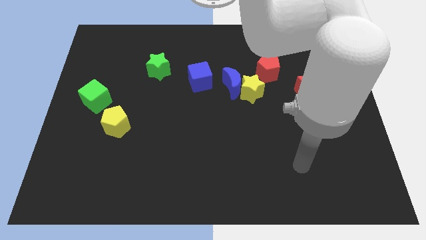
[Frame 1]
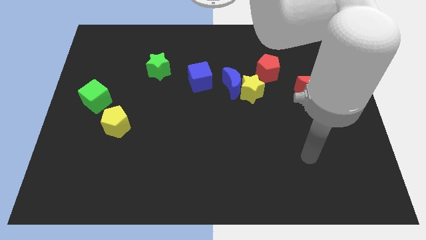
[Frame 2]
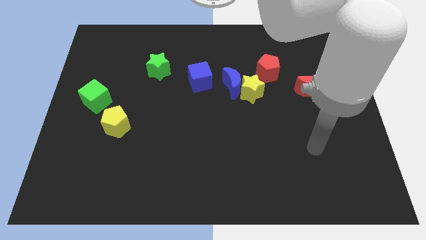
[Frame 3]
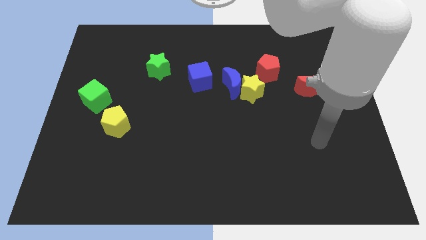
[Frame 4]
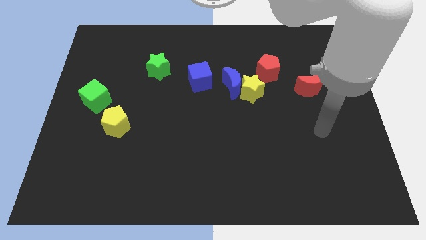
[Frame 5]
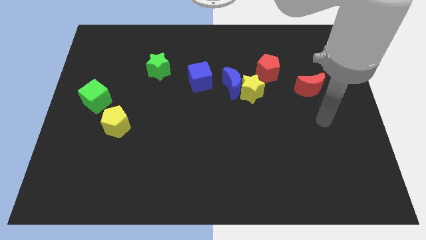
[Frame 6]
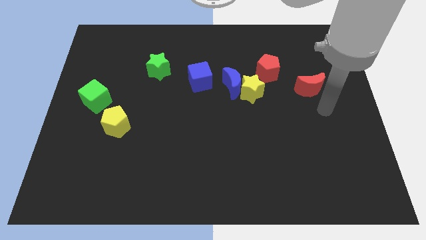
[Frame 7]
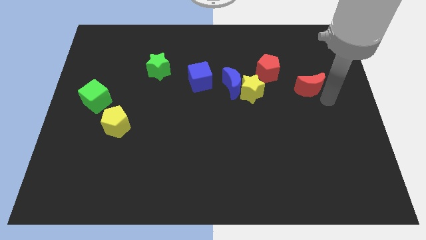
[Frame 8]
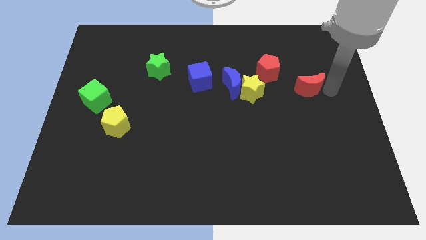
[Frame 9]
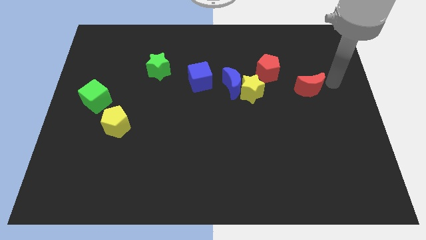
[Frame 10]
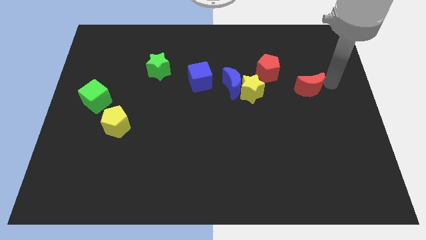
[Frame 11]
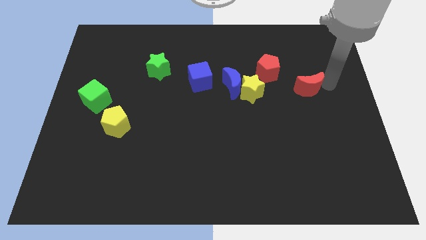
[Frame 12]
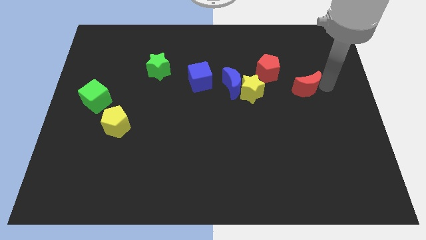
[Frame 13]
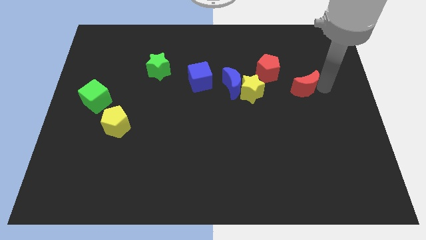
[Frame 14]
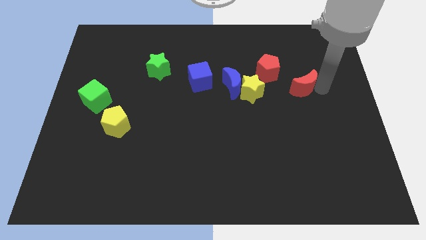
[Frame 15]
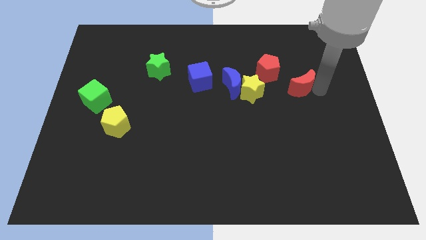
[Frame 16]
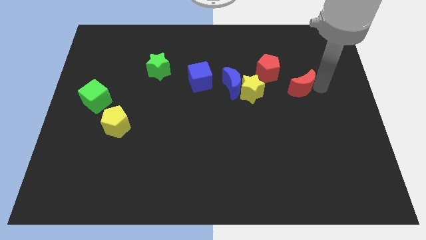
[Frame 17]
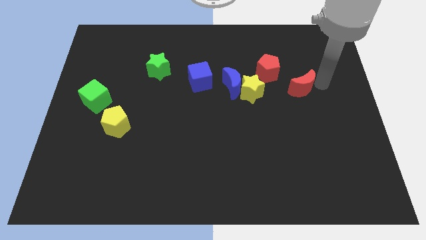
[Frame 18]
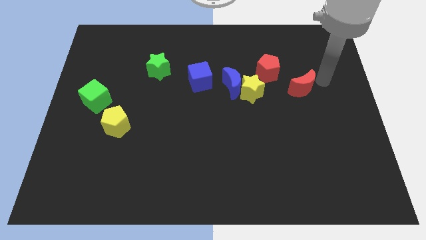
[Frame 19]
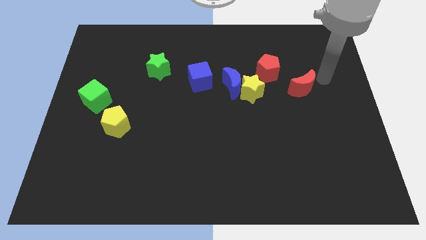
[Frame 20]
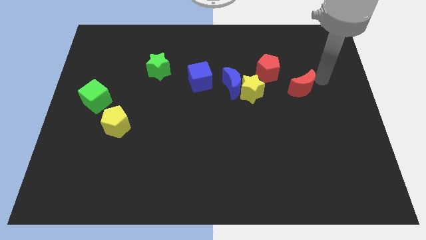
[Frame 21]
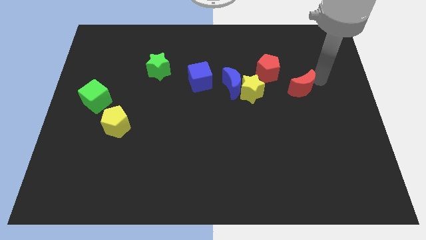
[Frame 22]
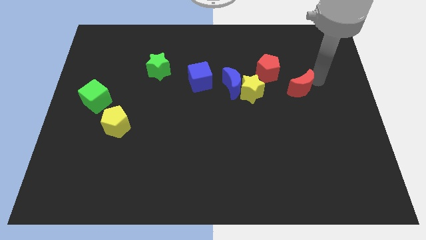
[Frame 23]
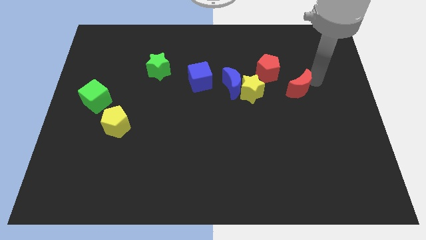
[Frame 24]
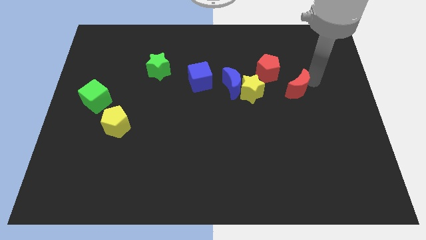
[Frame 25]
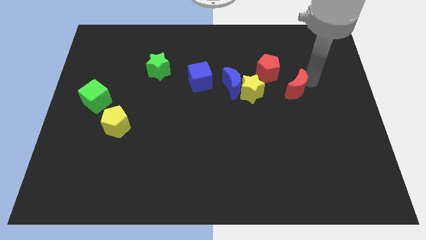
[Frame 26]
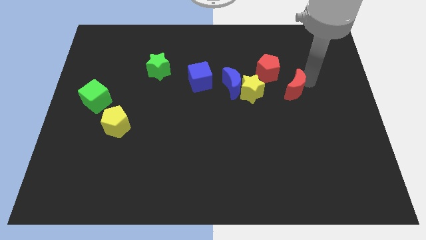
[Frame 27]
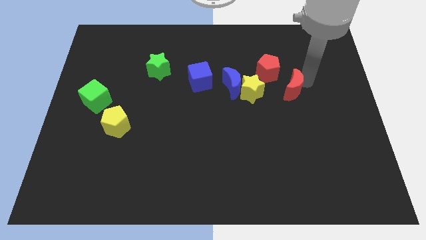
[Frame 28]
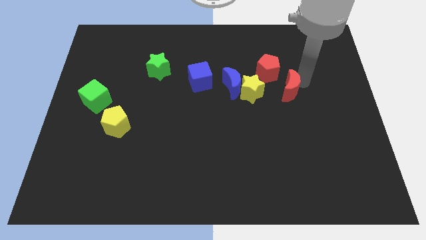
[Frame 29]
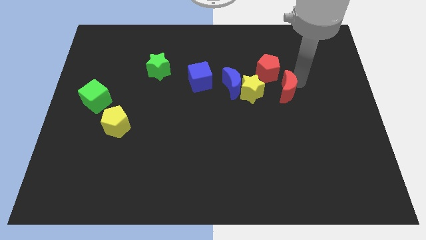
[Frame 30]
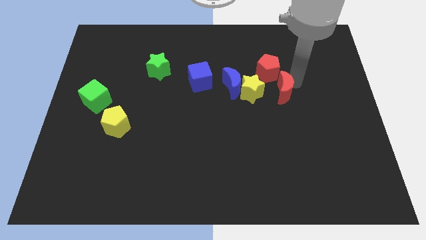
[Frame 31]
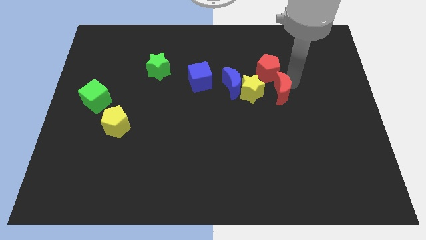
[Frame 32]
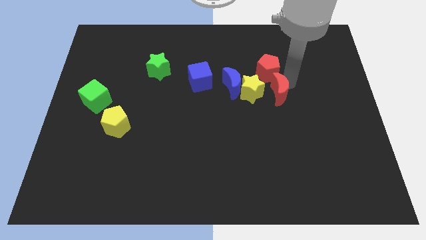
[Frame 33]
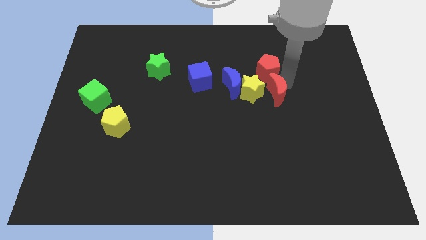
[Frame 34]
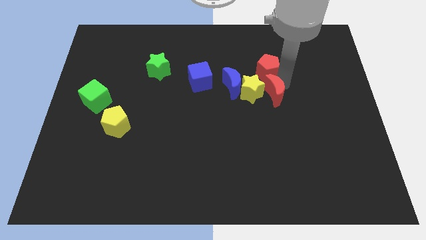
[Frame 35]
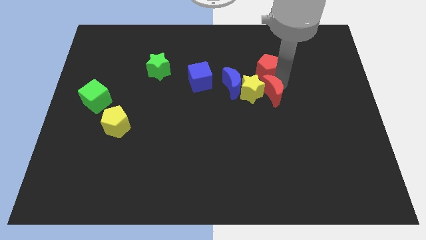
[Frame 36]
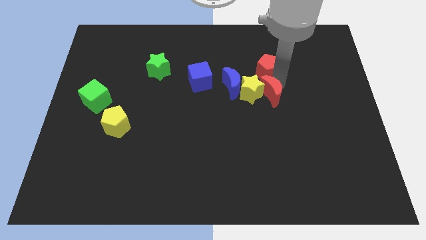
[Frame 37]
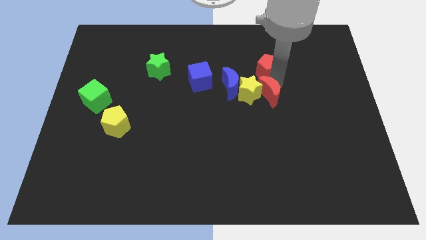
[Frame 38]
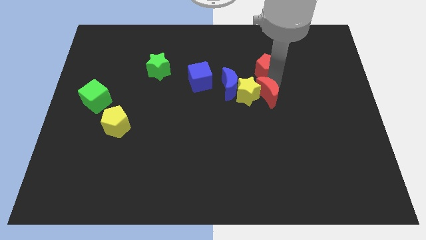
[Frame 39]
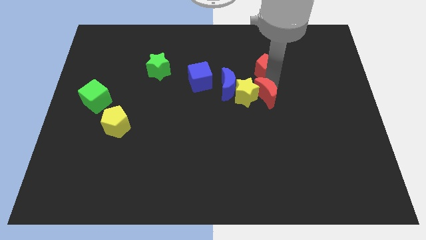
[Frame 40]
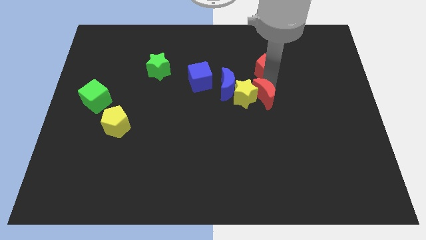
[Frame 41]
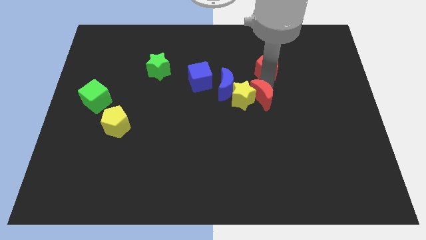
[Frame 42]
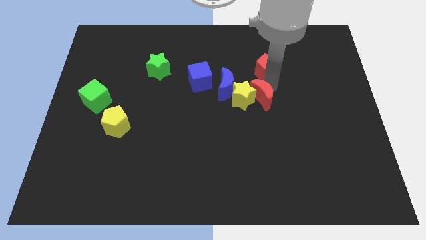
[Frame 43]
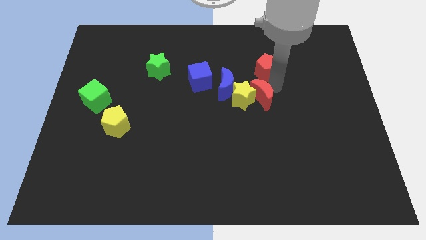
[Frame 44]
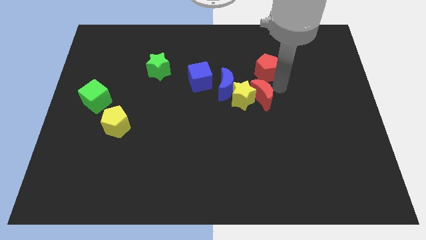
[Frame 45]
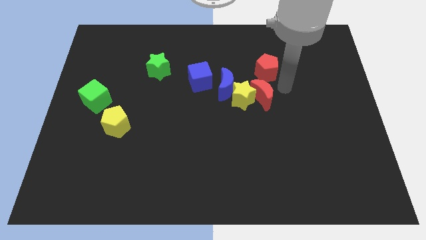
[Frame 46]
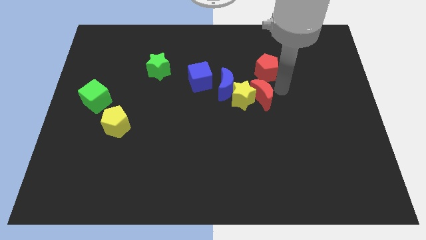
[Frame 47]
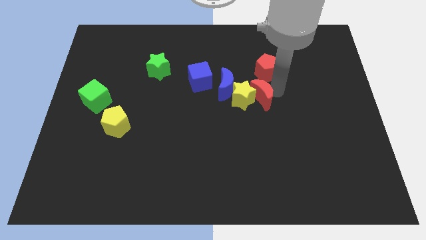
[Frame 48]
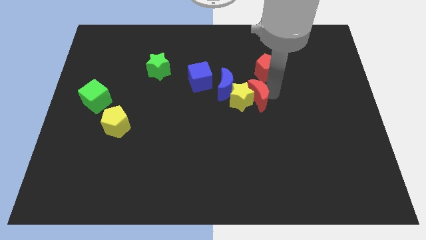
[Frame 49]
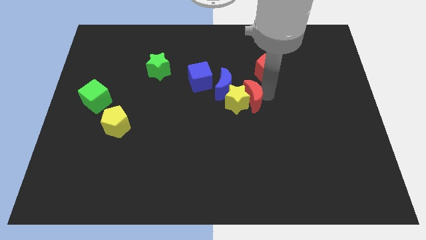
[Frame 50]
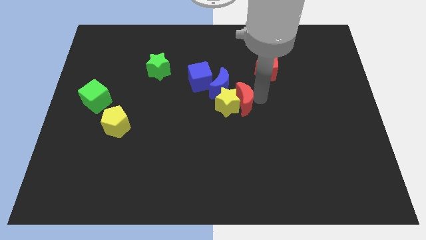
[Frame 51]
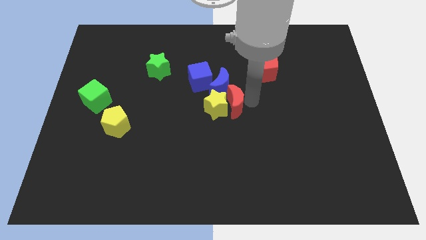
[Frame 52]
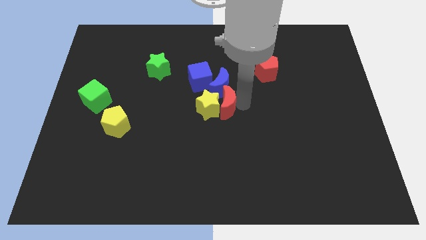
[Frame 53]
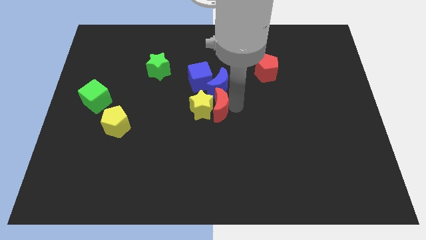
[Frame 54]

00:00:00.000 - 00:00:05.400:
put the red moon to the bottom left of the blue moon

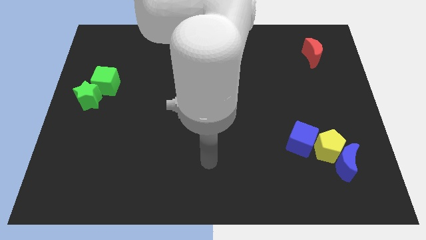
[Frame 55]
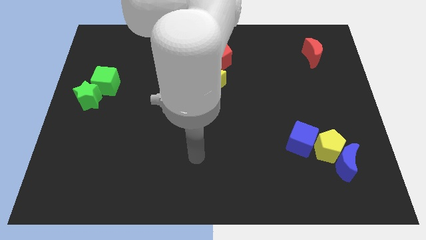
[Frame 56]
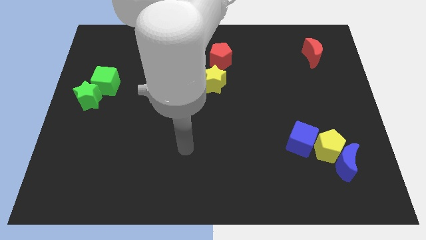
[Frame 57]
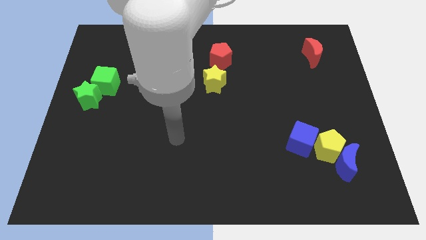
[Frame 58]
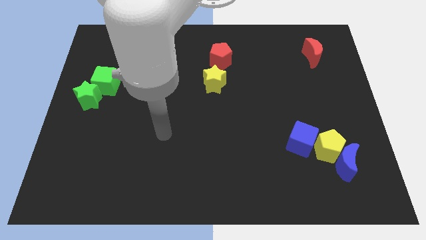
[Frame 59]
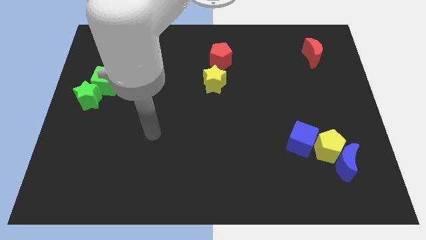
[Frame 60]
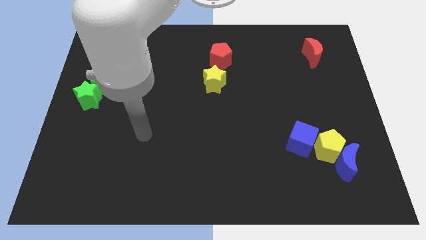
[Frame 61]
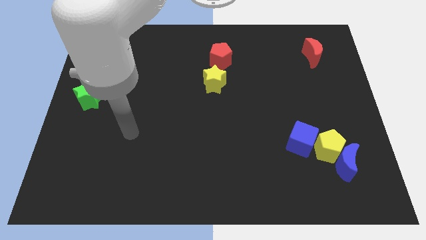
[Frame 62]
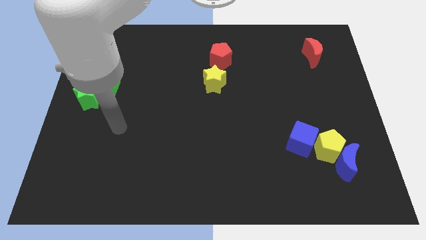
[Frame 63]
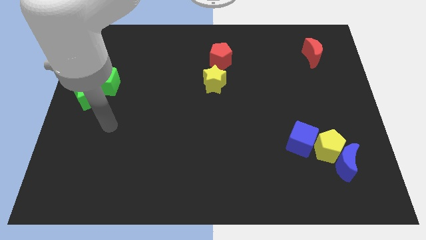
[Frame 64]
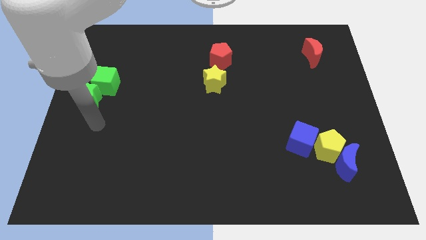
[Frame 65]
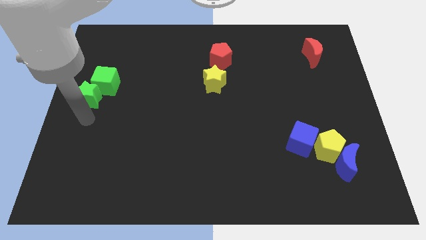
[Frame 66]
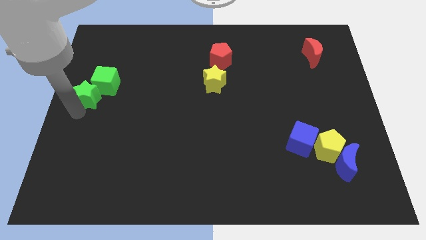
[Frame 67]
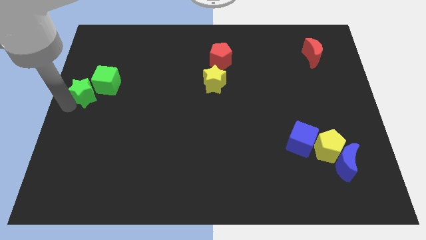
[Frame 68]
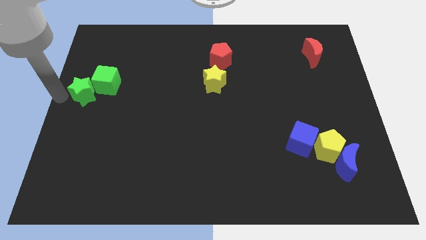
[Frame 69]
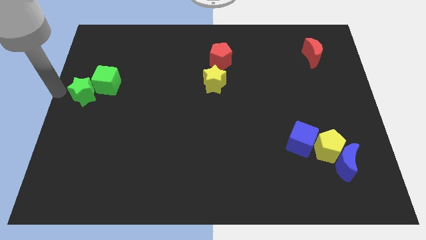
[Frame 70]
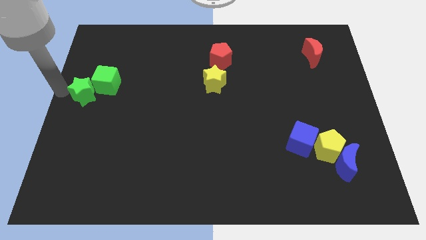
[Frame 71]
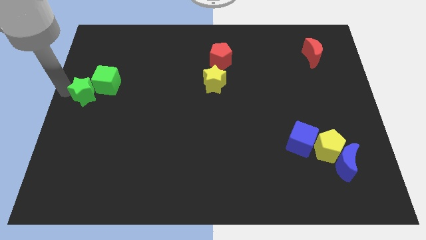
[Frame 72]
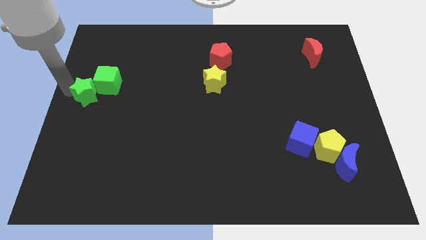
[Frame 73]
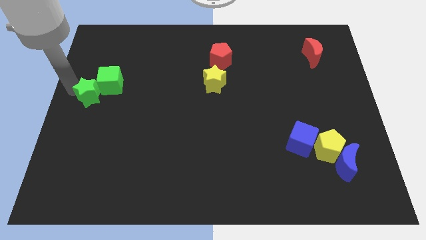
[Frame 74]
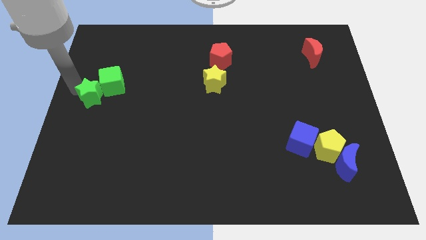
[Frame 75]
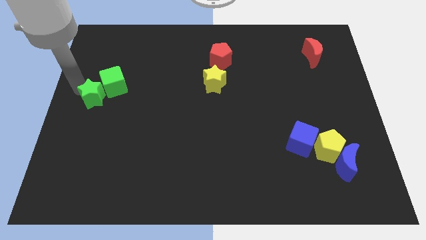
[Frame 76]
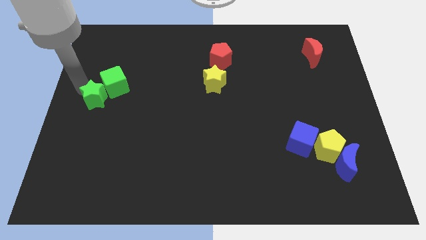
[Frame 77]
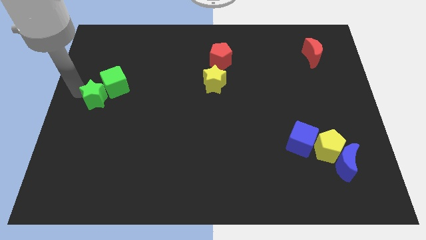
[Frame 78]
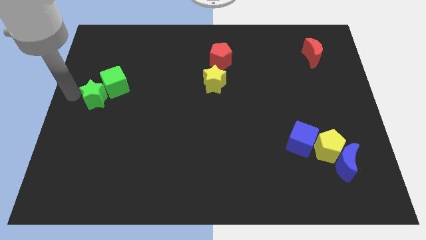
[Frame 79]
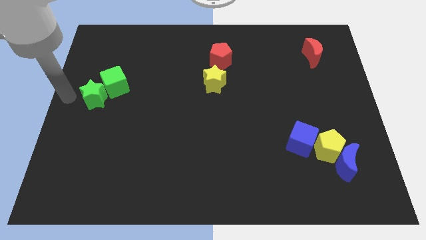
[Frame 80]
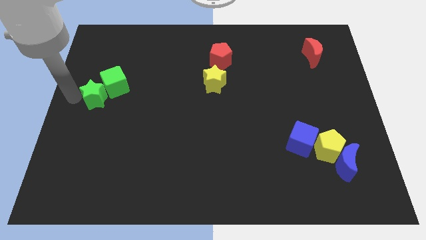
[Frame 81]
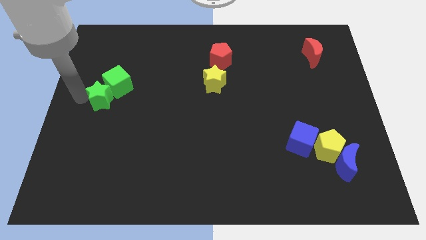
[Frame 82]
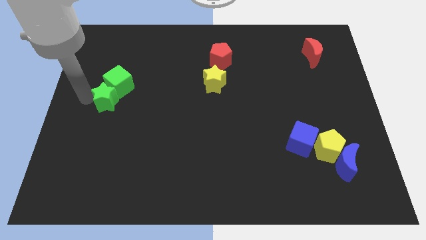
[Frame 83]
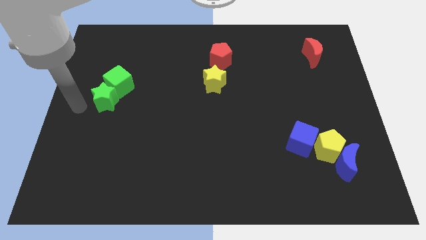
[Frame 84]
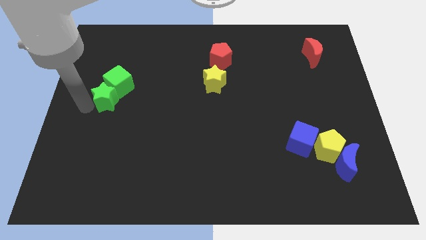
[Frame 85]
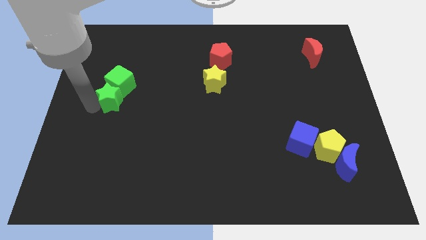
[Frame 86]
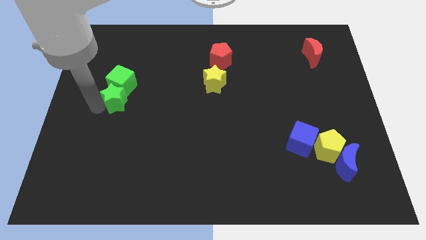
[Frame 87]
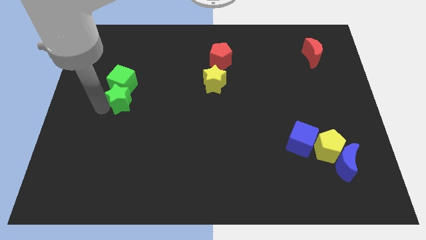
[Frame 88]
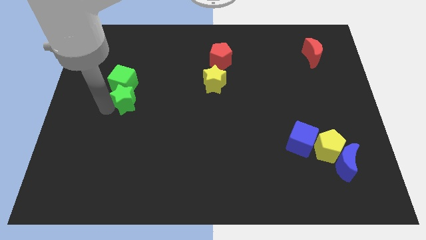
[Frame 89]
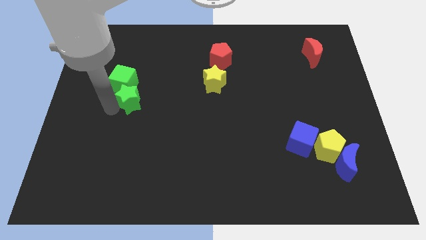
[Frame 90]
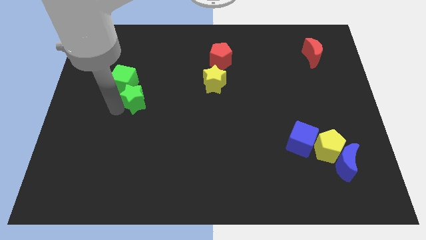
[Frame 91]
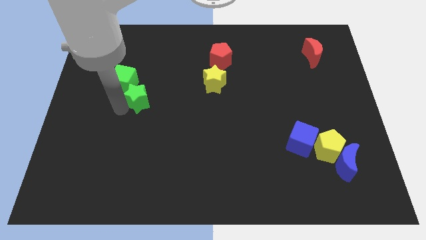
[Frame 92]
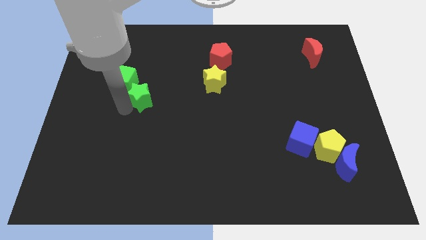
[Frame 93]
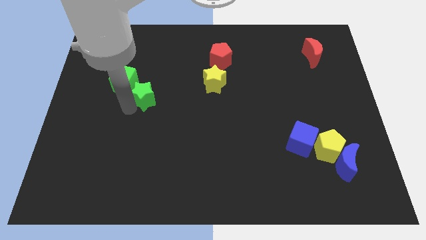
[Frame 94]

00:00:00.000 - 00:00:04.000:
move the green star to the right of the green cube
